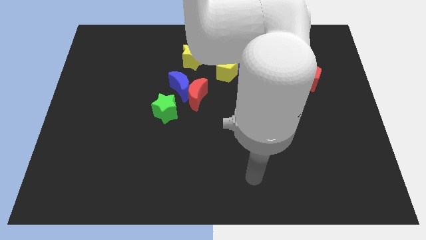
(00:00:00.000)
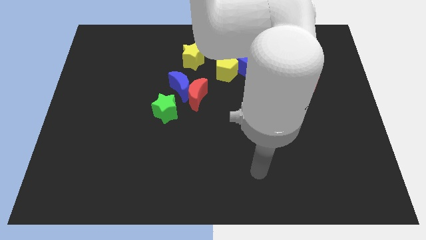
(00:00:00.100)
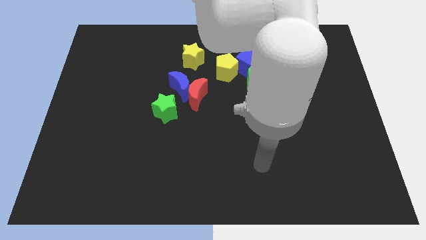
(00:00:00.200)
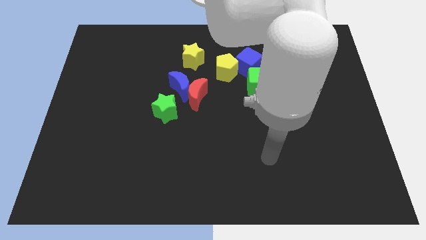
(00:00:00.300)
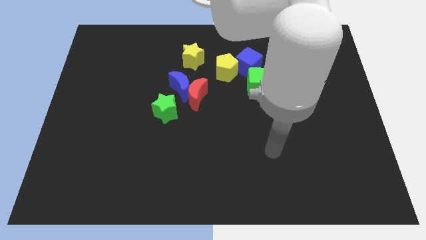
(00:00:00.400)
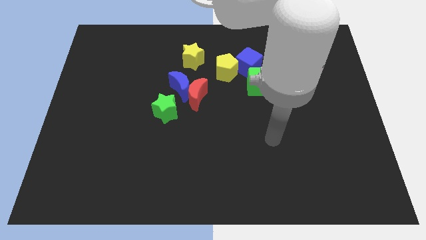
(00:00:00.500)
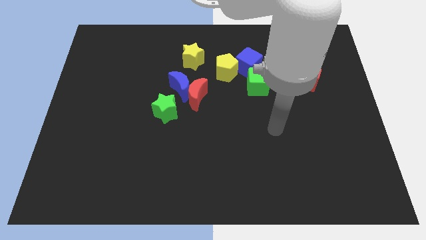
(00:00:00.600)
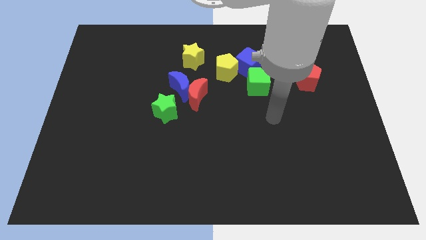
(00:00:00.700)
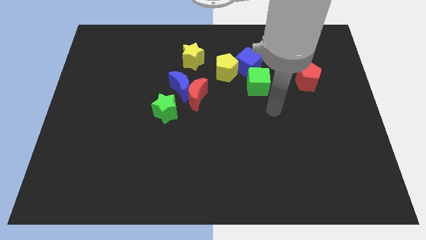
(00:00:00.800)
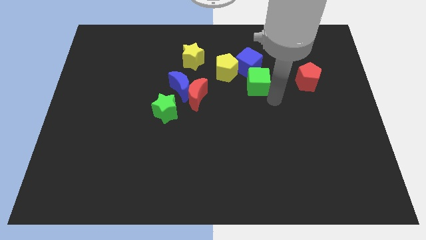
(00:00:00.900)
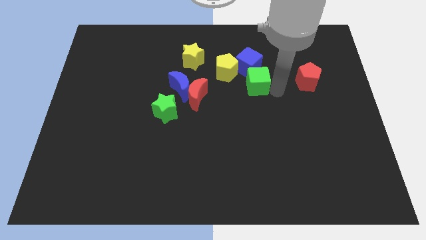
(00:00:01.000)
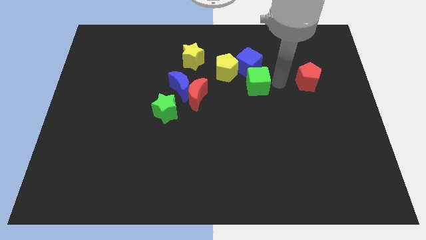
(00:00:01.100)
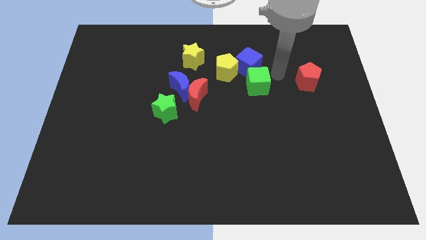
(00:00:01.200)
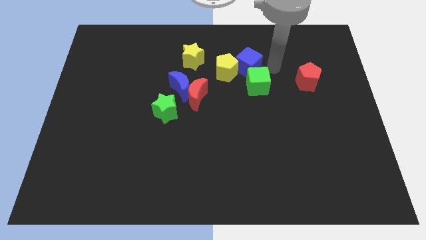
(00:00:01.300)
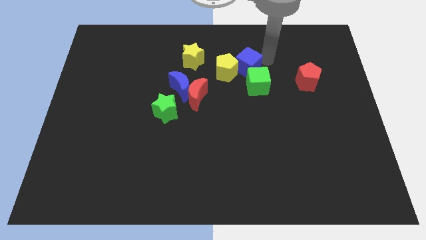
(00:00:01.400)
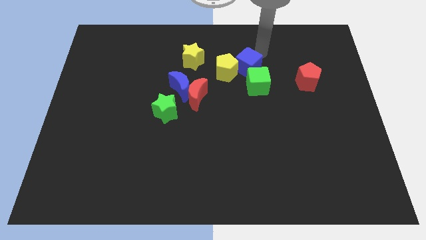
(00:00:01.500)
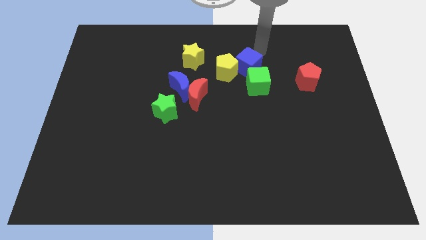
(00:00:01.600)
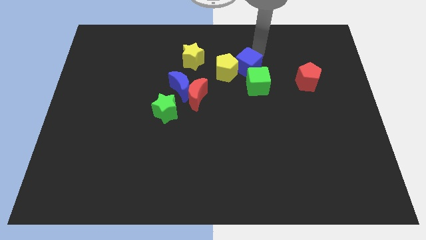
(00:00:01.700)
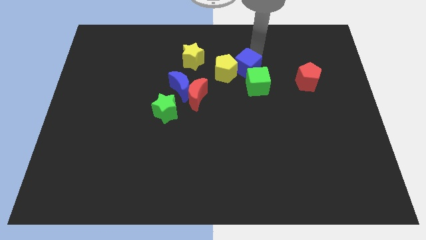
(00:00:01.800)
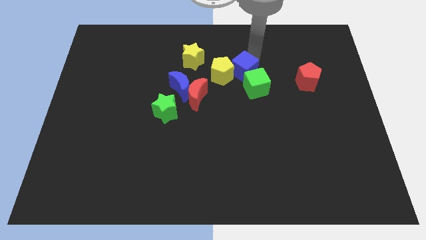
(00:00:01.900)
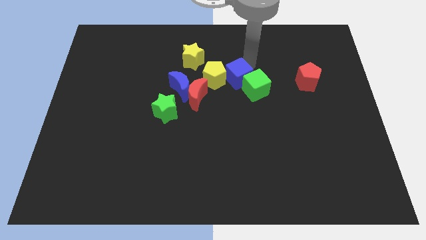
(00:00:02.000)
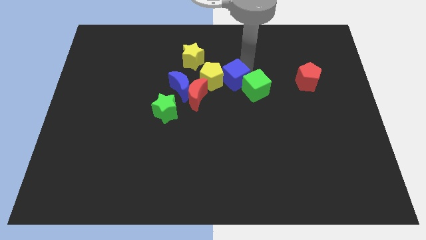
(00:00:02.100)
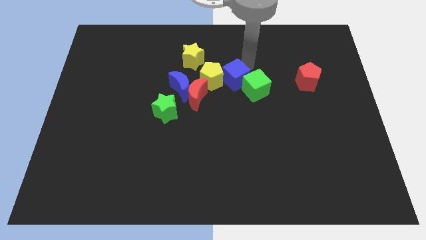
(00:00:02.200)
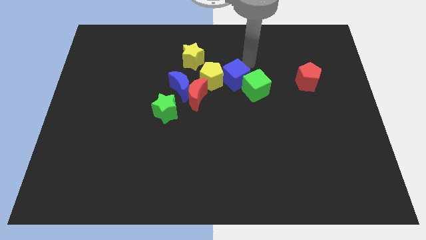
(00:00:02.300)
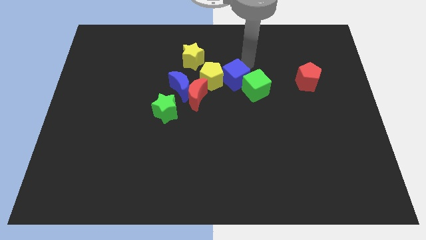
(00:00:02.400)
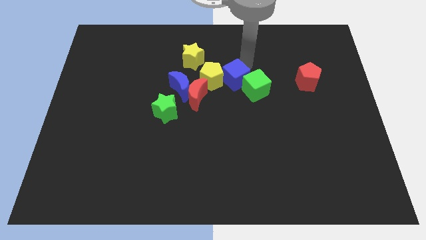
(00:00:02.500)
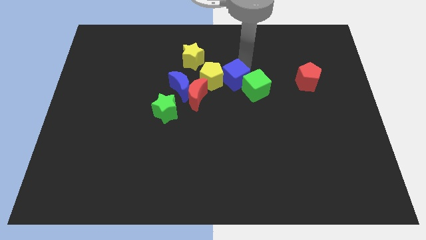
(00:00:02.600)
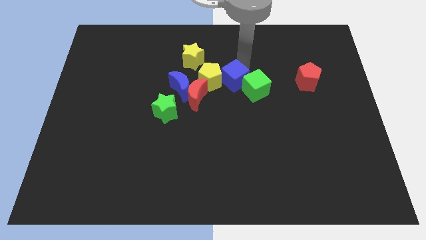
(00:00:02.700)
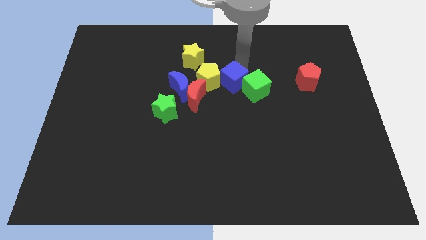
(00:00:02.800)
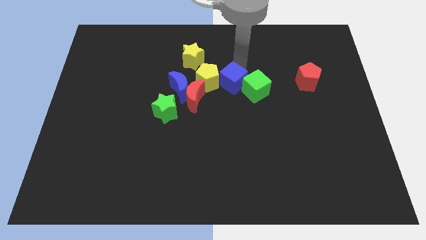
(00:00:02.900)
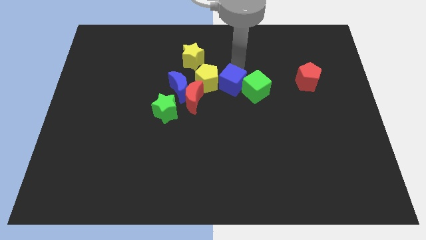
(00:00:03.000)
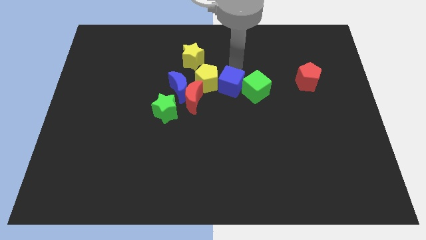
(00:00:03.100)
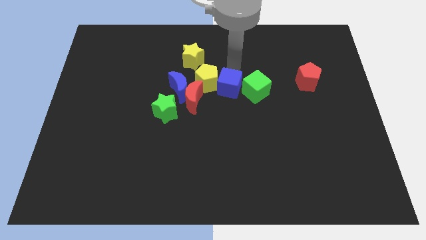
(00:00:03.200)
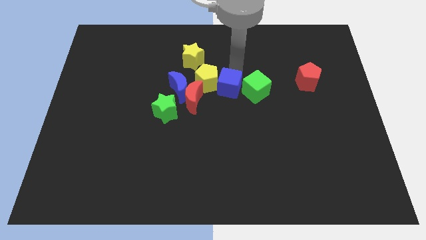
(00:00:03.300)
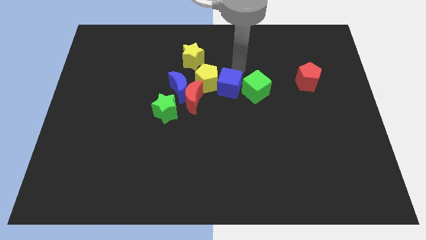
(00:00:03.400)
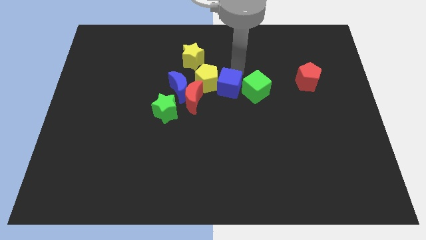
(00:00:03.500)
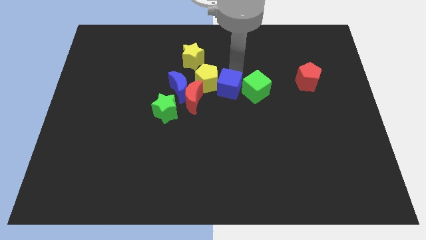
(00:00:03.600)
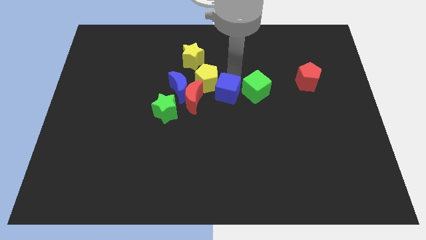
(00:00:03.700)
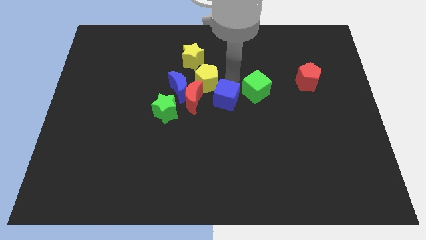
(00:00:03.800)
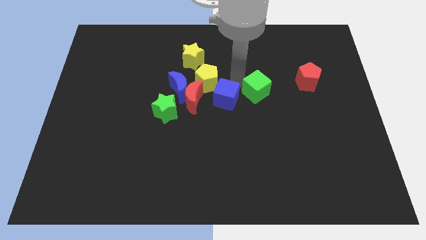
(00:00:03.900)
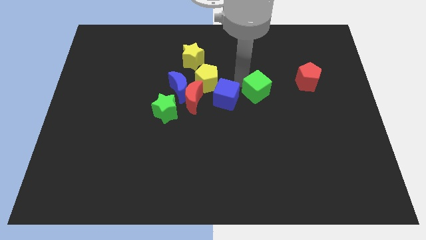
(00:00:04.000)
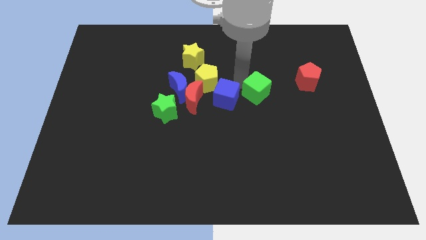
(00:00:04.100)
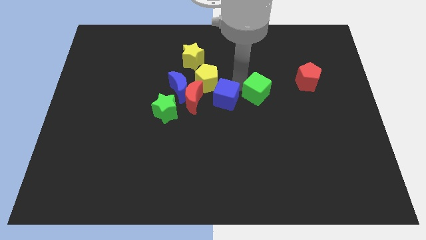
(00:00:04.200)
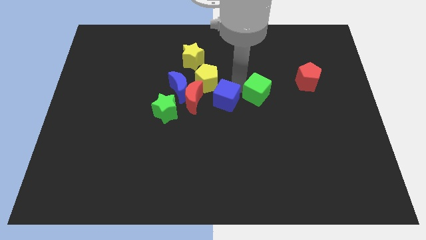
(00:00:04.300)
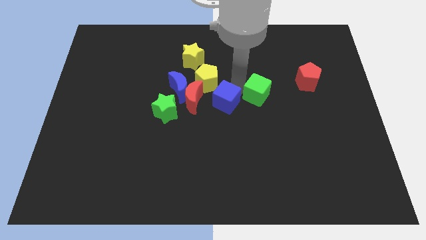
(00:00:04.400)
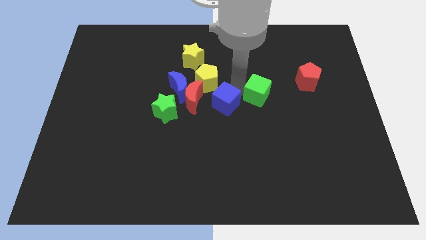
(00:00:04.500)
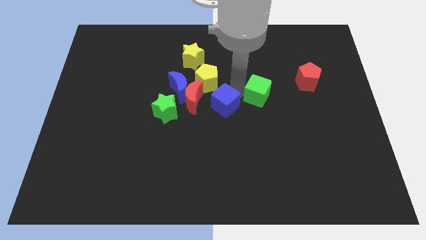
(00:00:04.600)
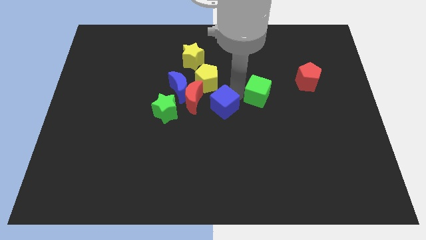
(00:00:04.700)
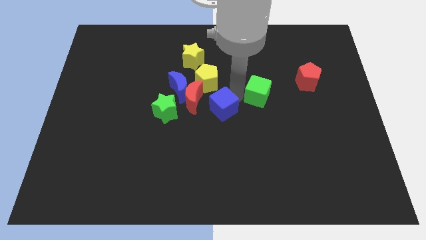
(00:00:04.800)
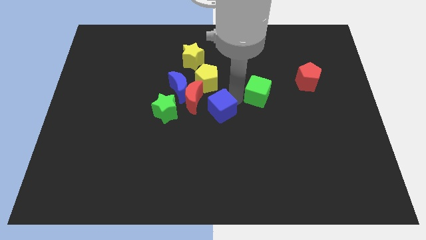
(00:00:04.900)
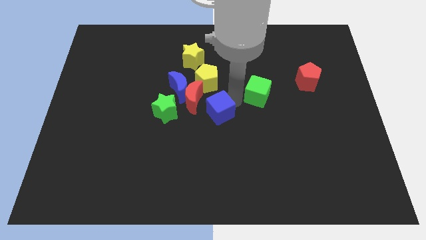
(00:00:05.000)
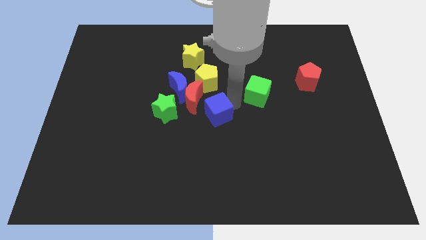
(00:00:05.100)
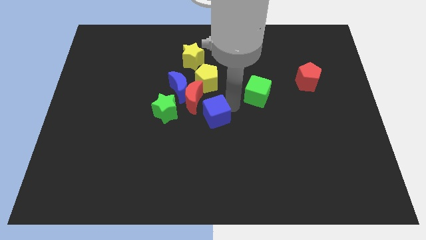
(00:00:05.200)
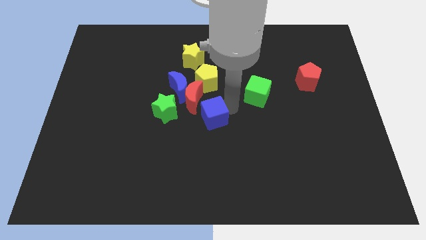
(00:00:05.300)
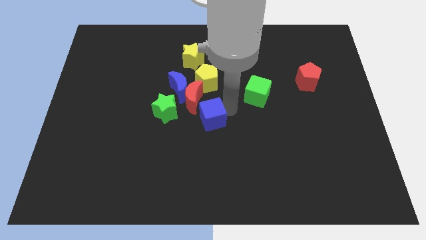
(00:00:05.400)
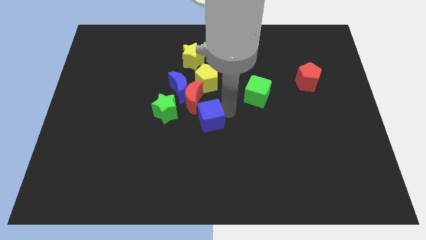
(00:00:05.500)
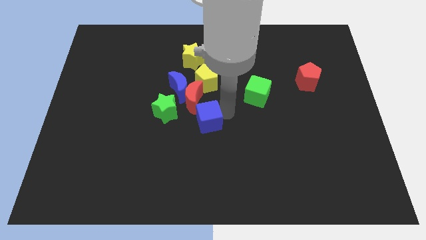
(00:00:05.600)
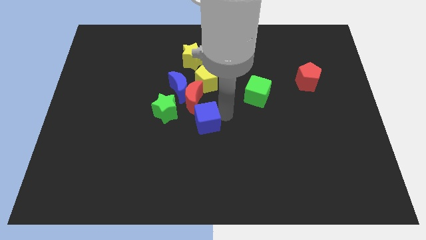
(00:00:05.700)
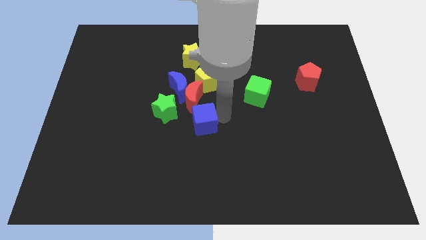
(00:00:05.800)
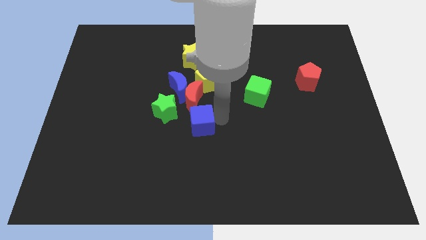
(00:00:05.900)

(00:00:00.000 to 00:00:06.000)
move the blue cube down and then left

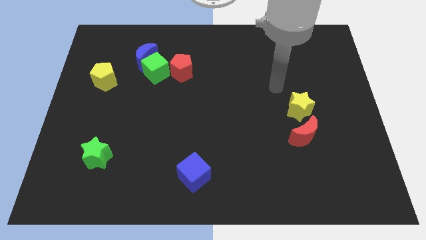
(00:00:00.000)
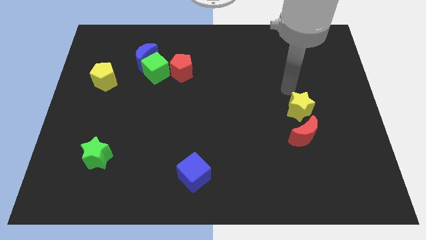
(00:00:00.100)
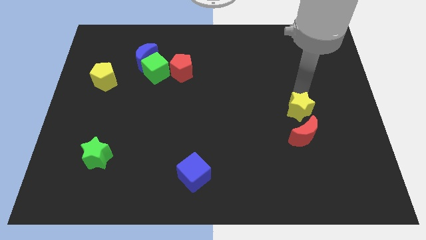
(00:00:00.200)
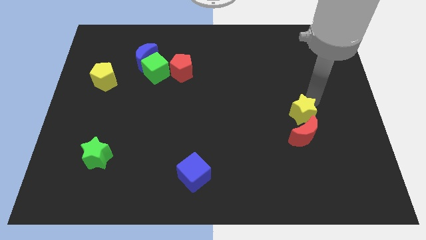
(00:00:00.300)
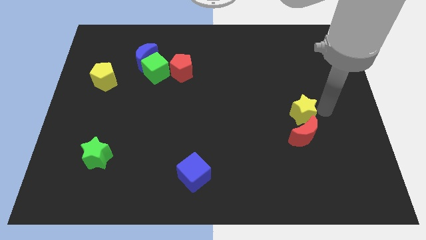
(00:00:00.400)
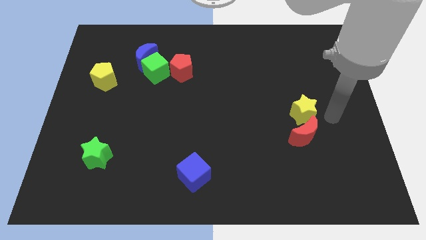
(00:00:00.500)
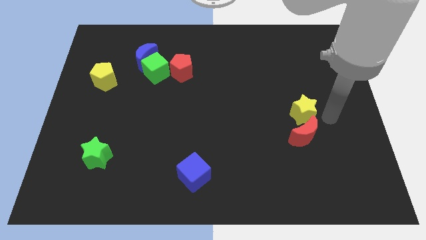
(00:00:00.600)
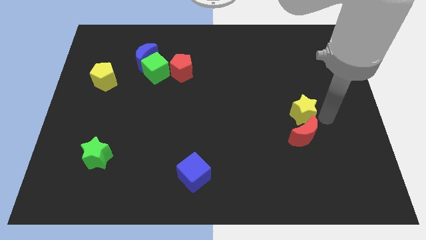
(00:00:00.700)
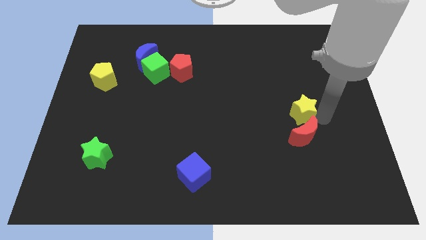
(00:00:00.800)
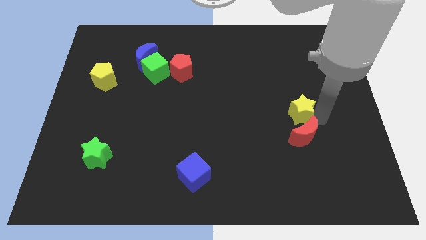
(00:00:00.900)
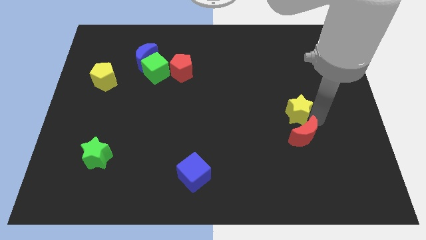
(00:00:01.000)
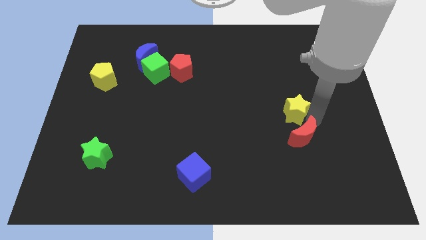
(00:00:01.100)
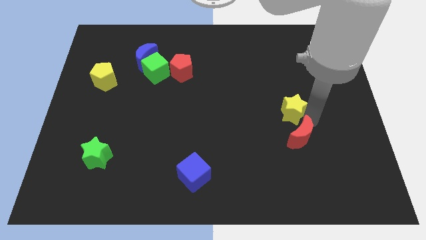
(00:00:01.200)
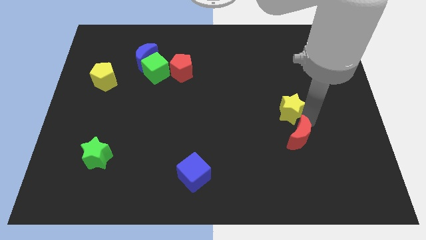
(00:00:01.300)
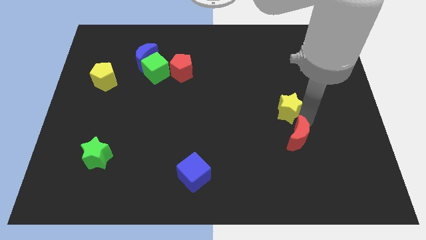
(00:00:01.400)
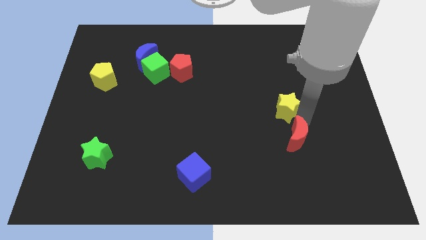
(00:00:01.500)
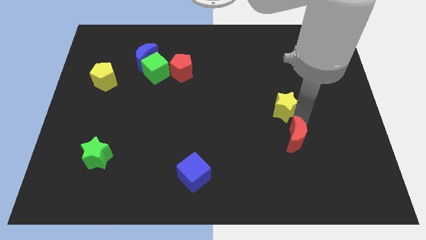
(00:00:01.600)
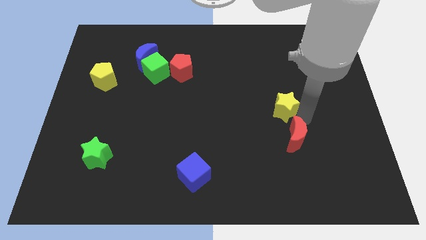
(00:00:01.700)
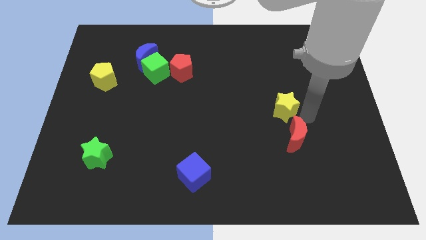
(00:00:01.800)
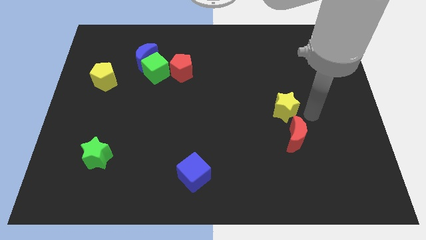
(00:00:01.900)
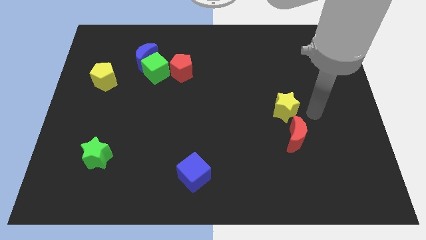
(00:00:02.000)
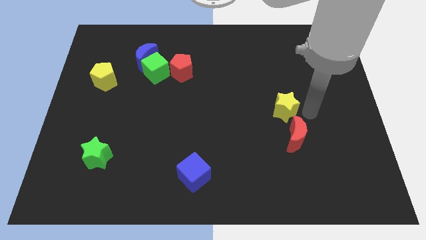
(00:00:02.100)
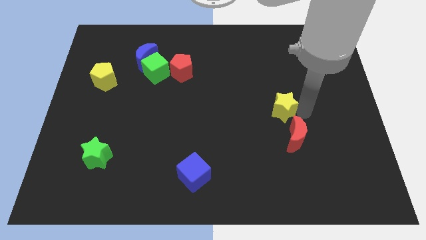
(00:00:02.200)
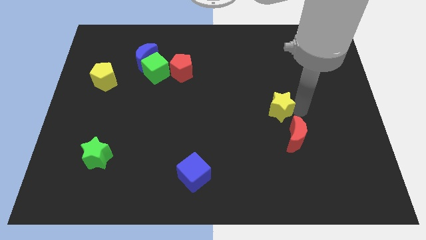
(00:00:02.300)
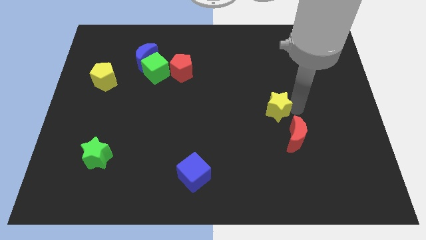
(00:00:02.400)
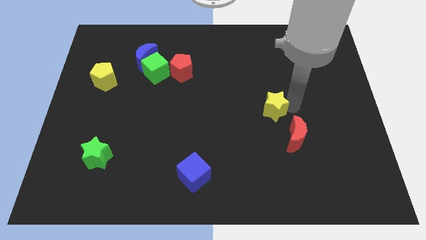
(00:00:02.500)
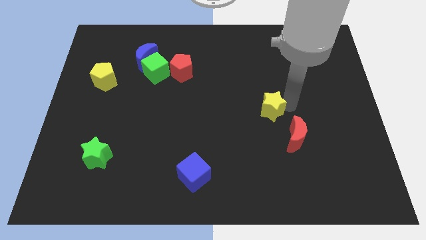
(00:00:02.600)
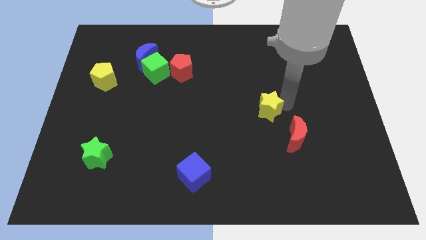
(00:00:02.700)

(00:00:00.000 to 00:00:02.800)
slide the yellow star left a little bit
